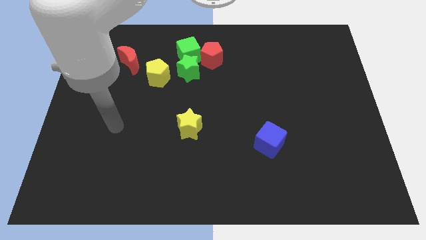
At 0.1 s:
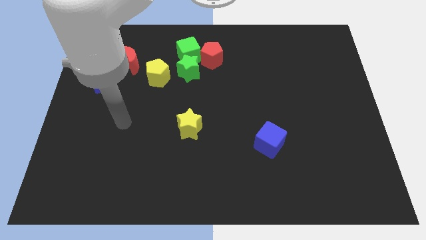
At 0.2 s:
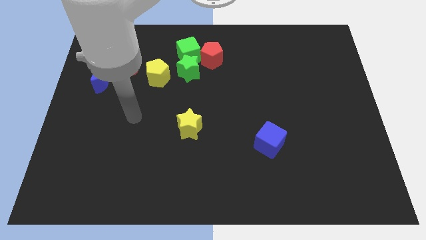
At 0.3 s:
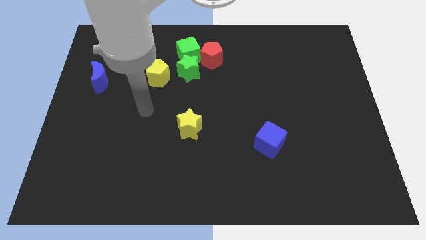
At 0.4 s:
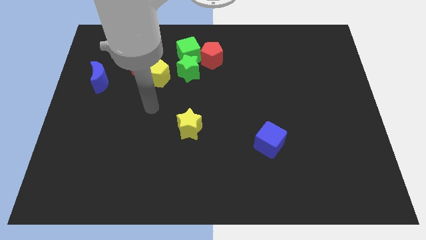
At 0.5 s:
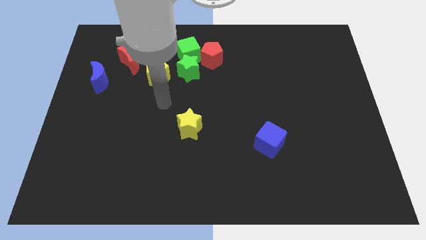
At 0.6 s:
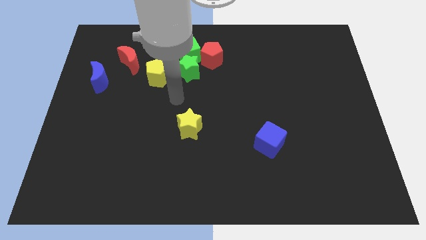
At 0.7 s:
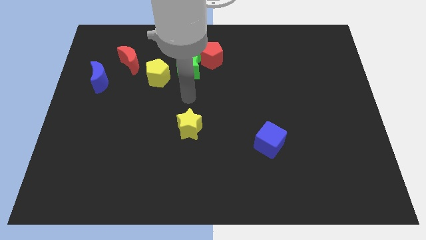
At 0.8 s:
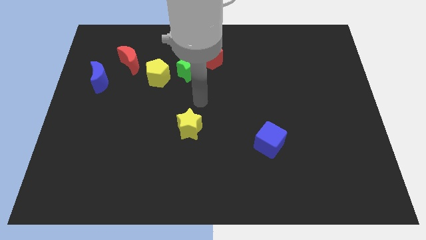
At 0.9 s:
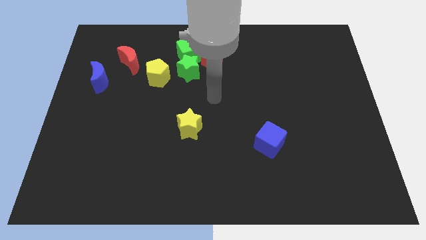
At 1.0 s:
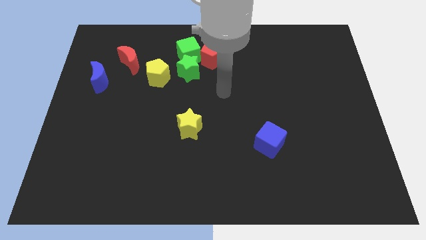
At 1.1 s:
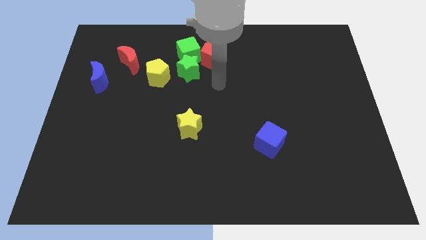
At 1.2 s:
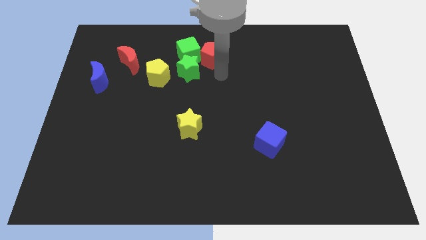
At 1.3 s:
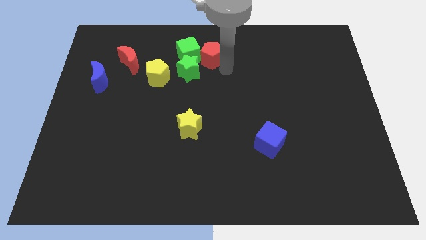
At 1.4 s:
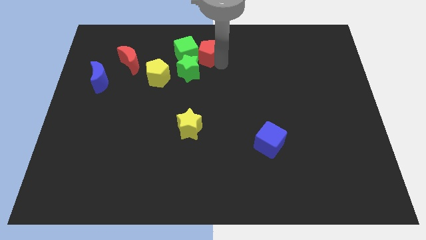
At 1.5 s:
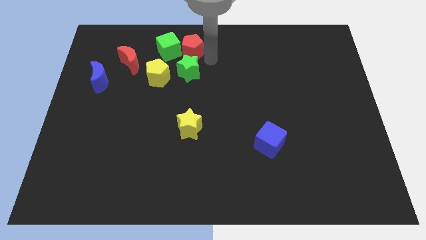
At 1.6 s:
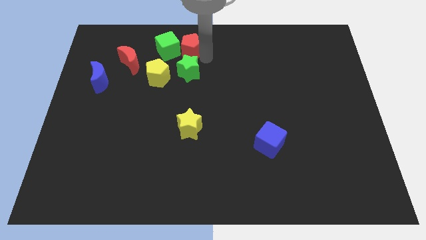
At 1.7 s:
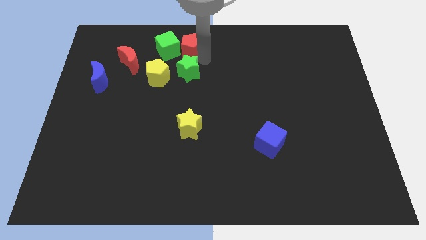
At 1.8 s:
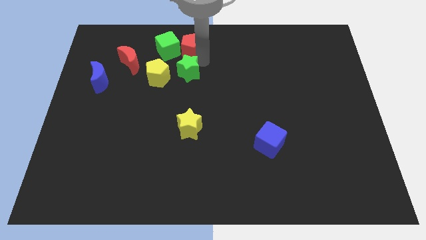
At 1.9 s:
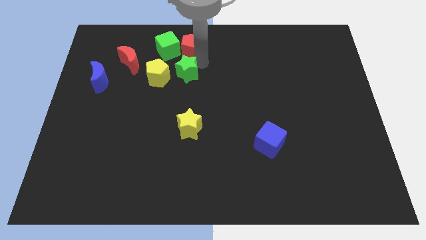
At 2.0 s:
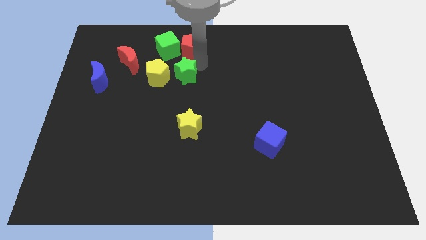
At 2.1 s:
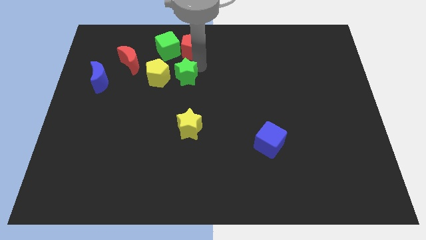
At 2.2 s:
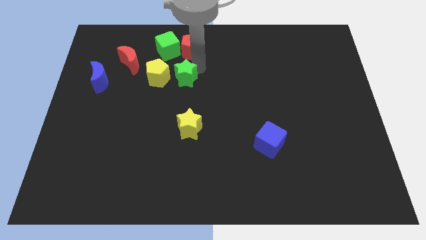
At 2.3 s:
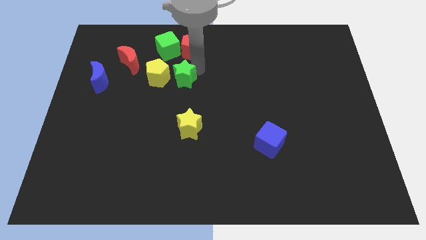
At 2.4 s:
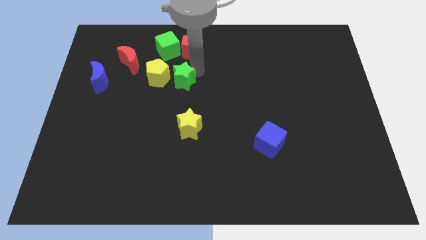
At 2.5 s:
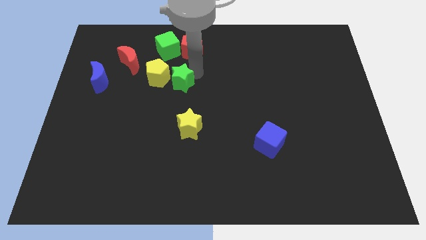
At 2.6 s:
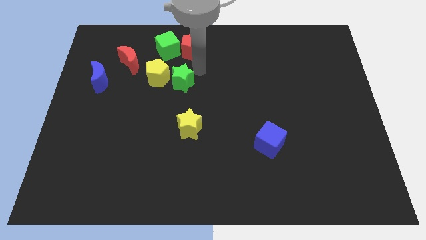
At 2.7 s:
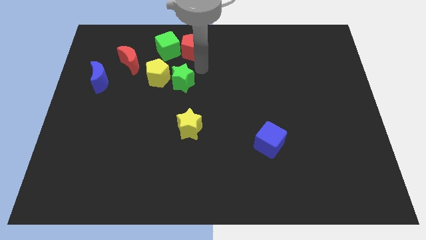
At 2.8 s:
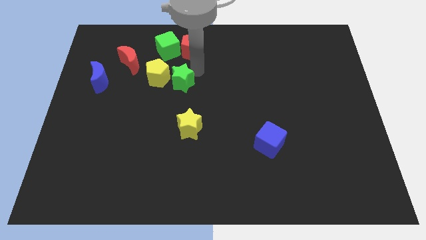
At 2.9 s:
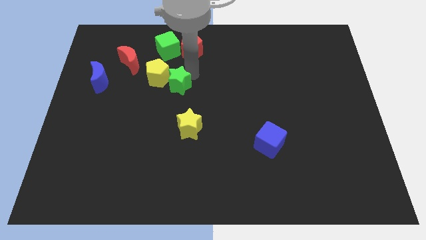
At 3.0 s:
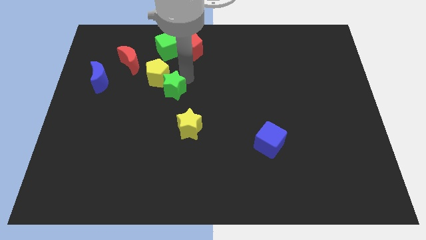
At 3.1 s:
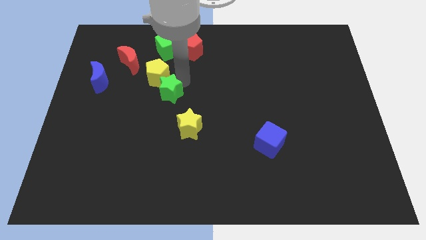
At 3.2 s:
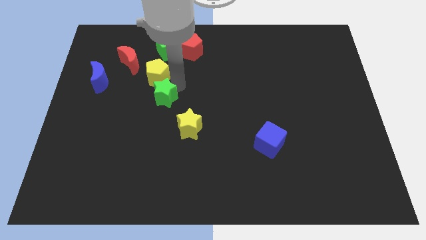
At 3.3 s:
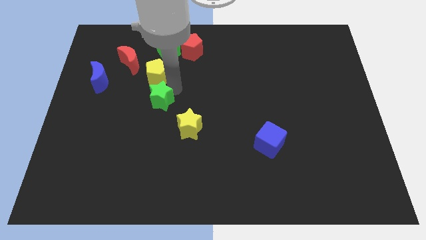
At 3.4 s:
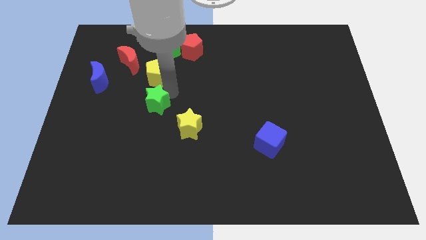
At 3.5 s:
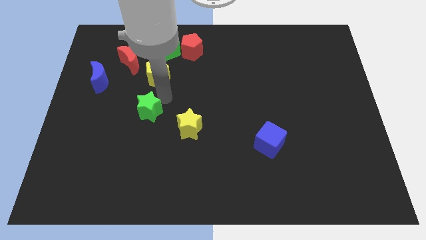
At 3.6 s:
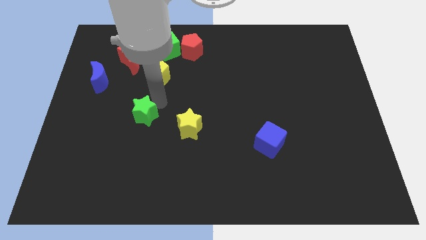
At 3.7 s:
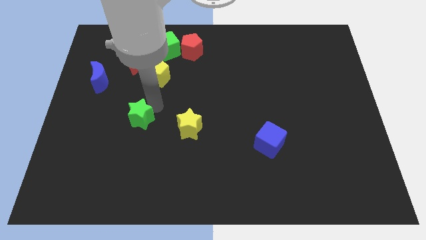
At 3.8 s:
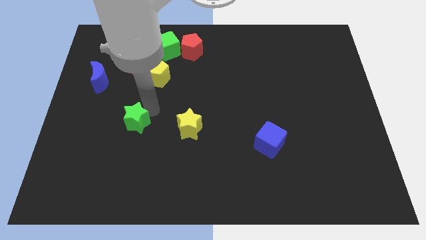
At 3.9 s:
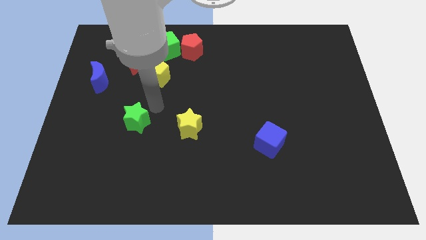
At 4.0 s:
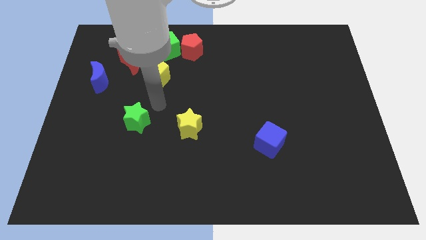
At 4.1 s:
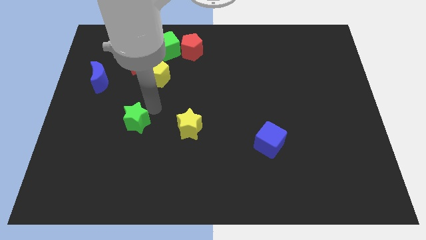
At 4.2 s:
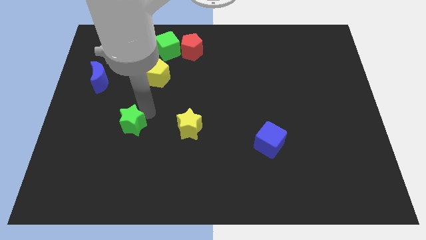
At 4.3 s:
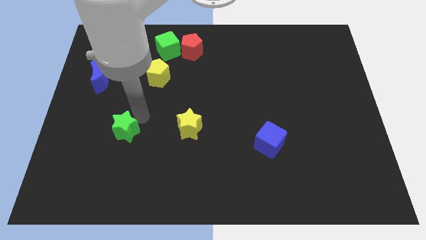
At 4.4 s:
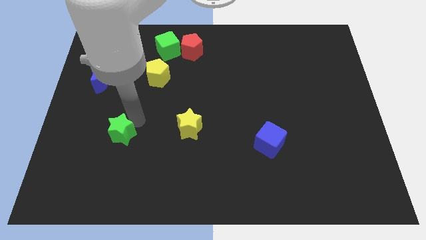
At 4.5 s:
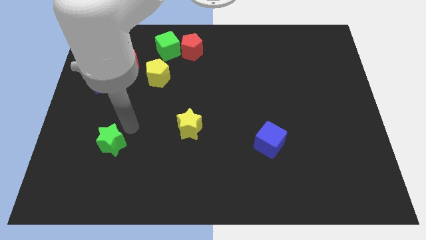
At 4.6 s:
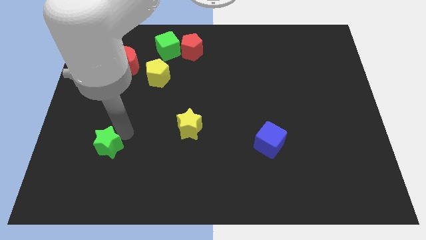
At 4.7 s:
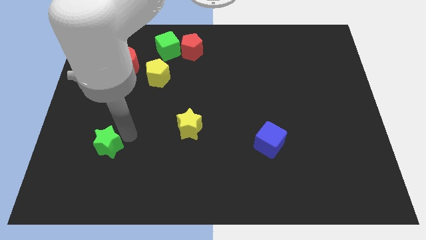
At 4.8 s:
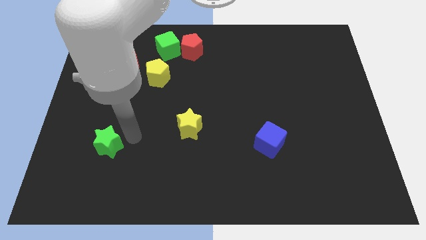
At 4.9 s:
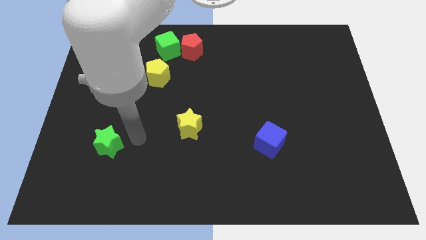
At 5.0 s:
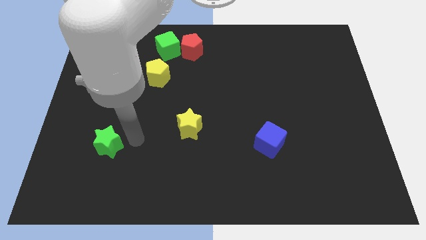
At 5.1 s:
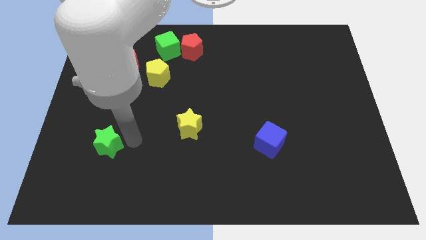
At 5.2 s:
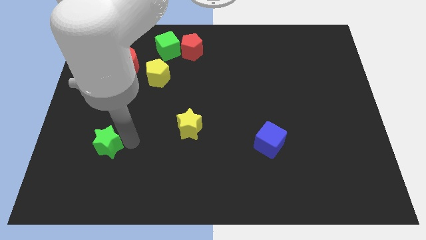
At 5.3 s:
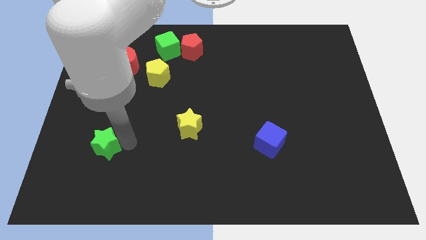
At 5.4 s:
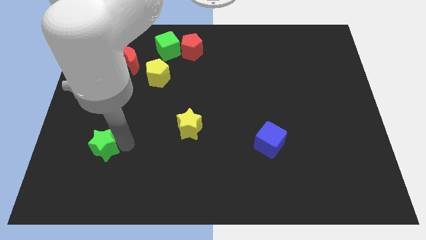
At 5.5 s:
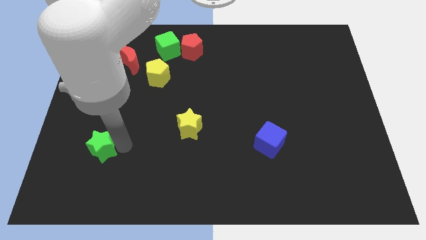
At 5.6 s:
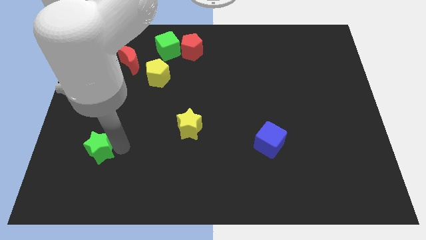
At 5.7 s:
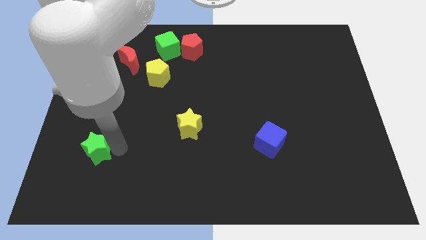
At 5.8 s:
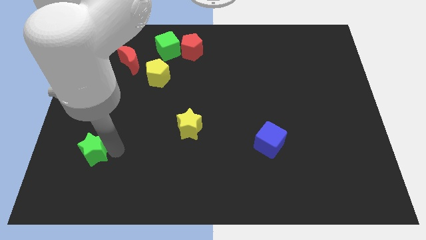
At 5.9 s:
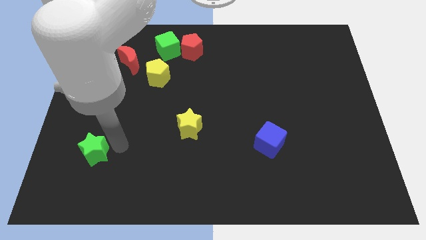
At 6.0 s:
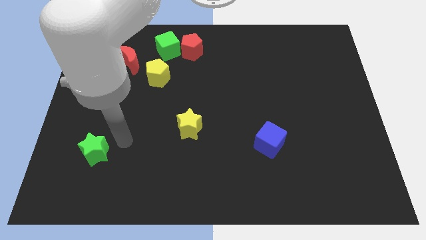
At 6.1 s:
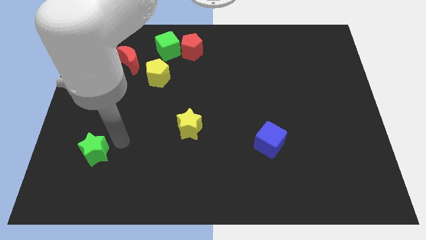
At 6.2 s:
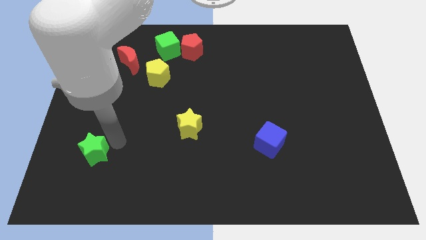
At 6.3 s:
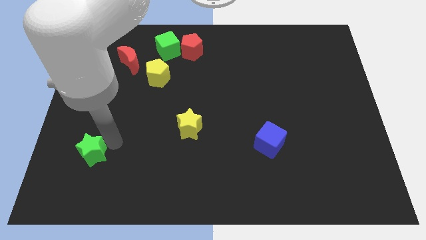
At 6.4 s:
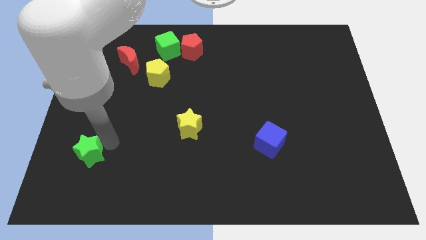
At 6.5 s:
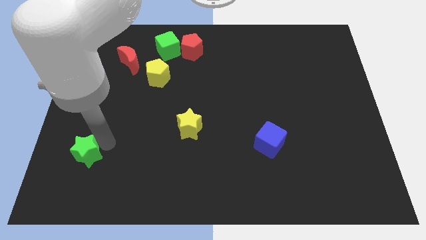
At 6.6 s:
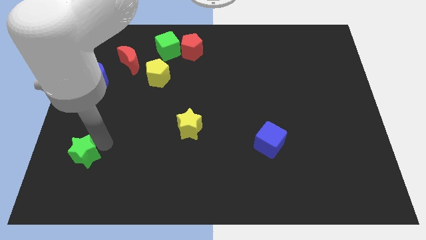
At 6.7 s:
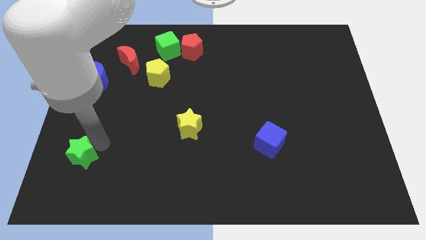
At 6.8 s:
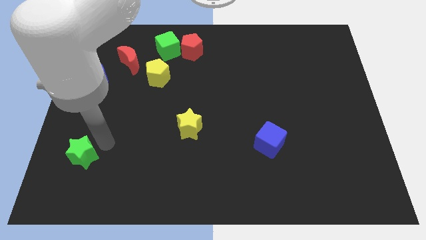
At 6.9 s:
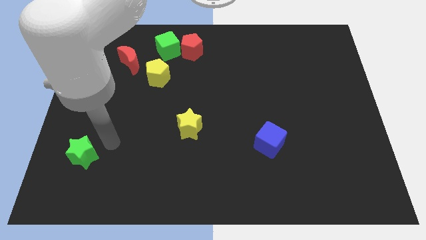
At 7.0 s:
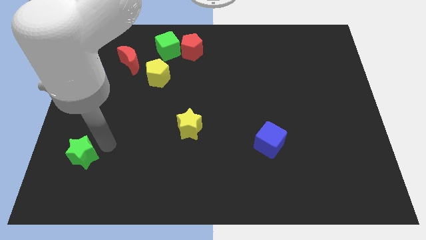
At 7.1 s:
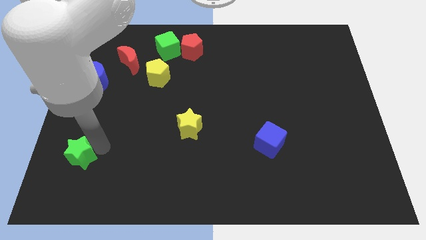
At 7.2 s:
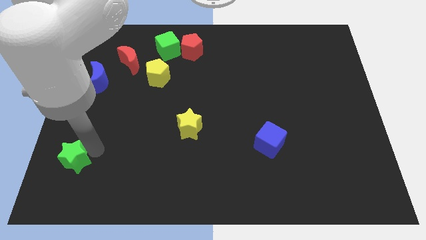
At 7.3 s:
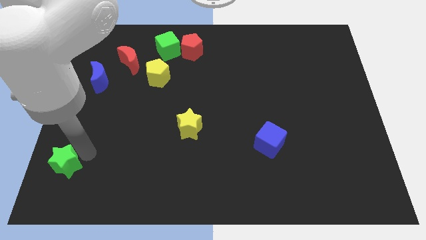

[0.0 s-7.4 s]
move the green star to the bottom left
